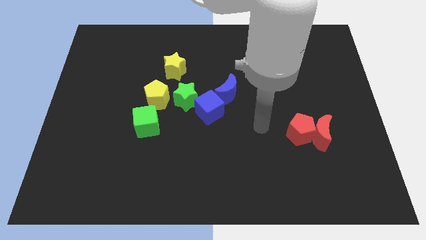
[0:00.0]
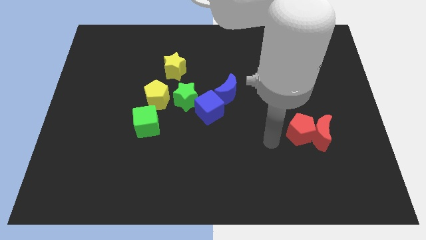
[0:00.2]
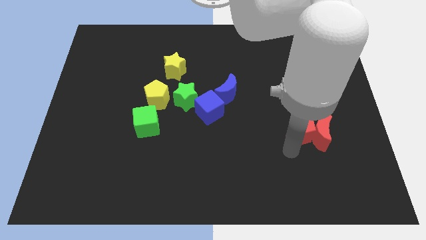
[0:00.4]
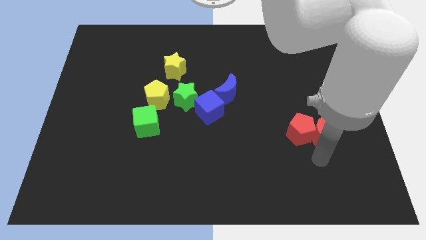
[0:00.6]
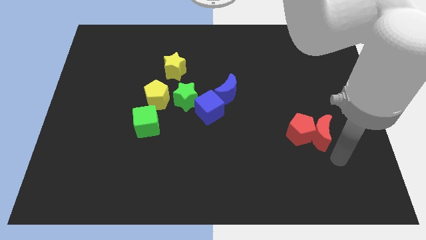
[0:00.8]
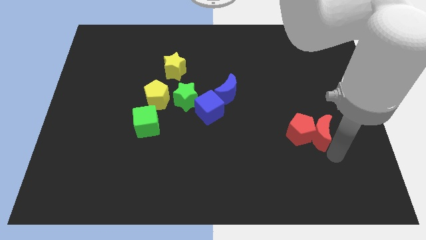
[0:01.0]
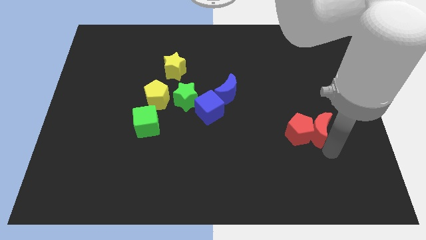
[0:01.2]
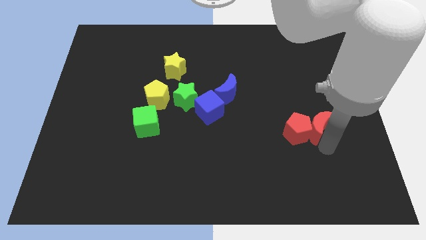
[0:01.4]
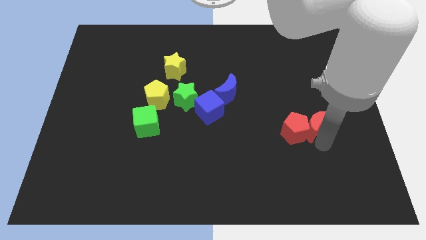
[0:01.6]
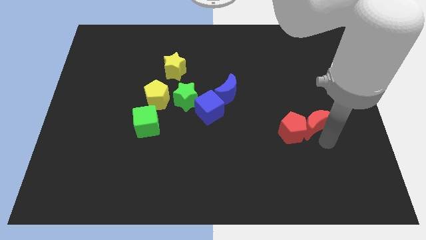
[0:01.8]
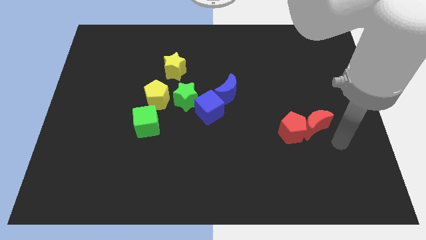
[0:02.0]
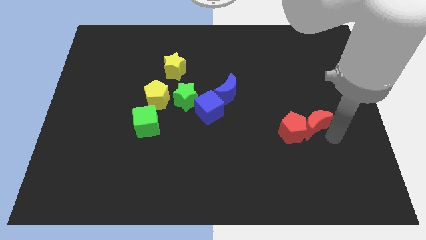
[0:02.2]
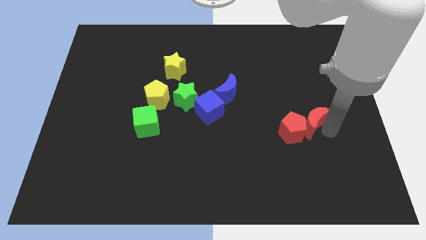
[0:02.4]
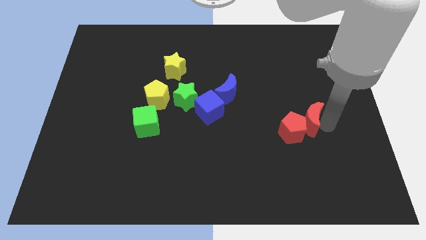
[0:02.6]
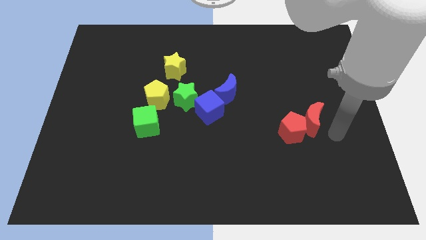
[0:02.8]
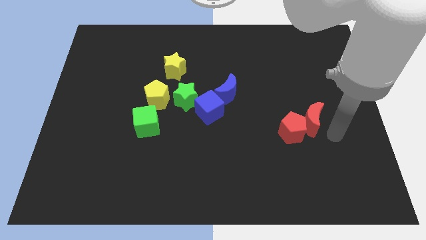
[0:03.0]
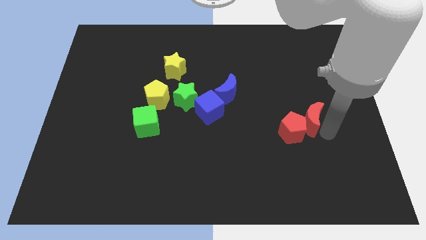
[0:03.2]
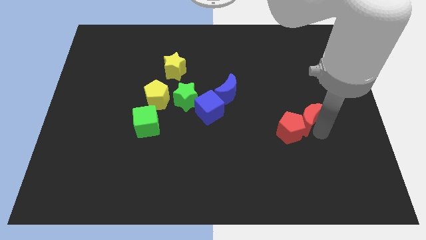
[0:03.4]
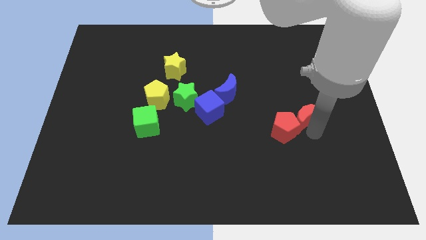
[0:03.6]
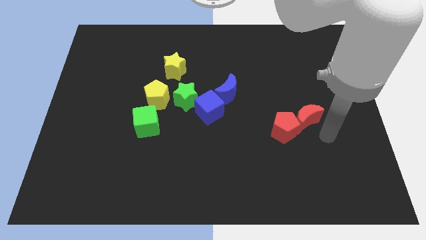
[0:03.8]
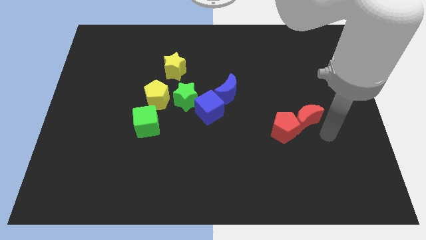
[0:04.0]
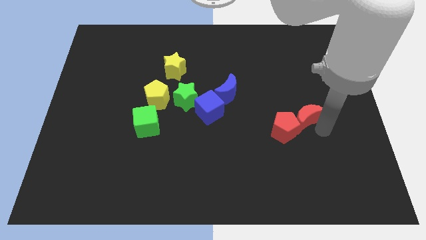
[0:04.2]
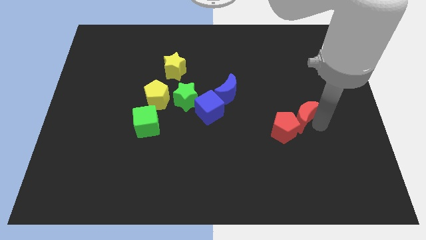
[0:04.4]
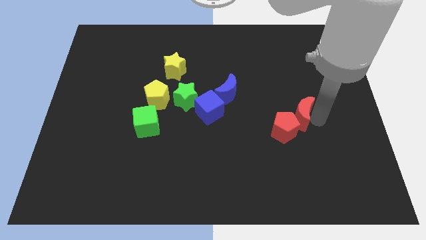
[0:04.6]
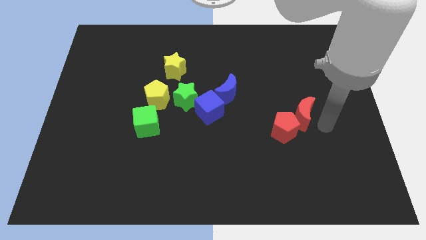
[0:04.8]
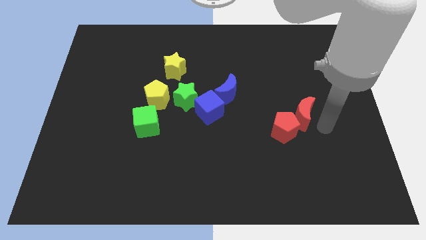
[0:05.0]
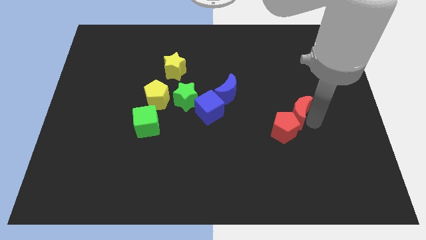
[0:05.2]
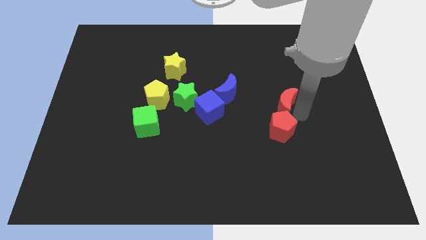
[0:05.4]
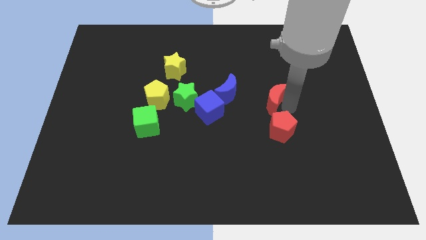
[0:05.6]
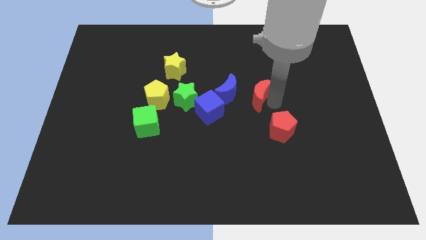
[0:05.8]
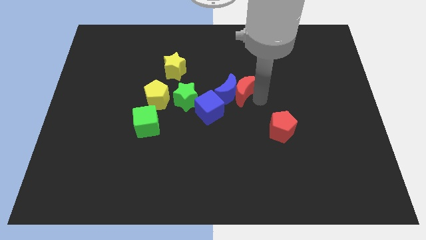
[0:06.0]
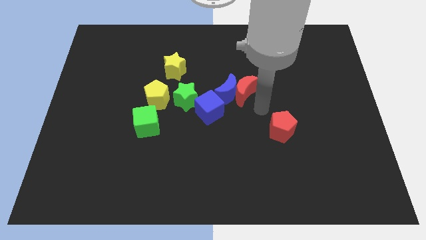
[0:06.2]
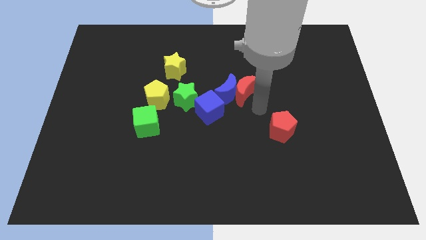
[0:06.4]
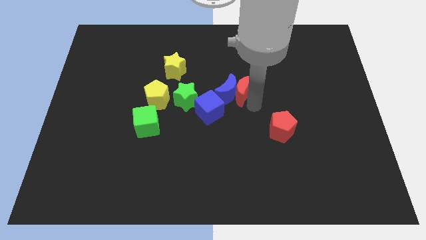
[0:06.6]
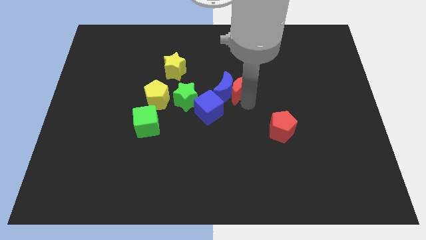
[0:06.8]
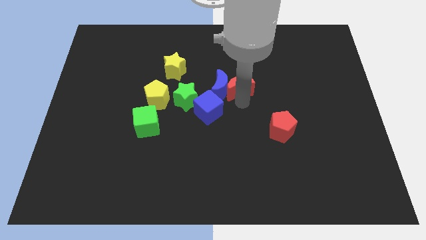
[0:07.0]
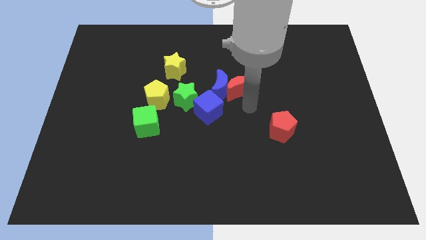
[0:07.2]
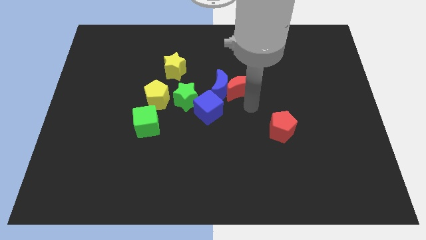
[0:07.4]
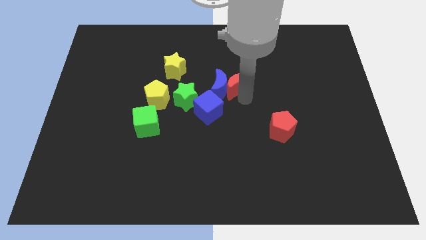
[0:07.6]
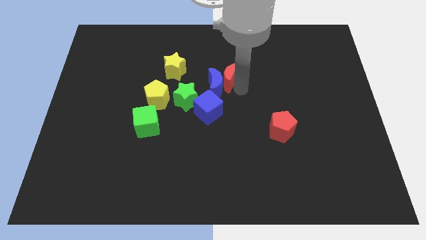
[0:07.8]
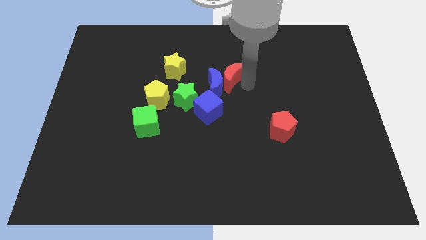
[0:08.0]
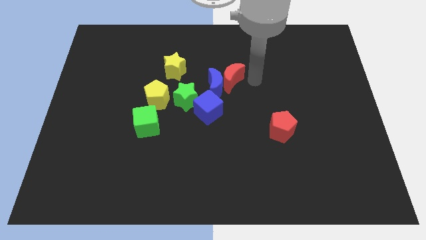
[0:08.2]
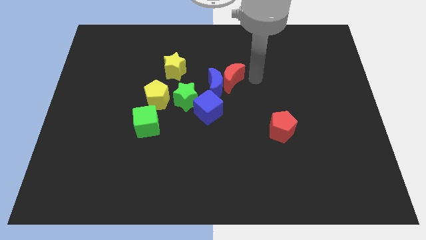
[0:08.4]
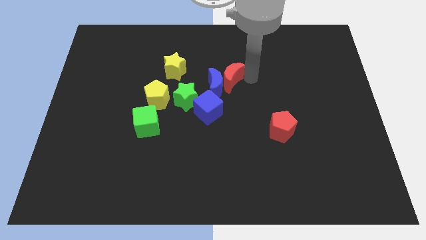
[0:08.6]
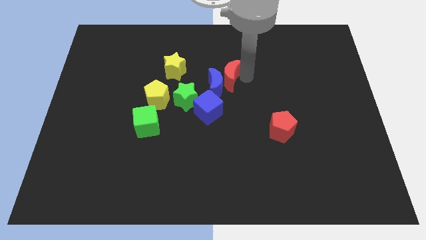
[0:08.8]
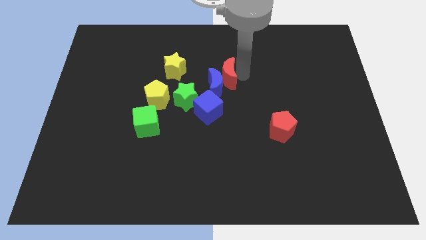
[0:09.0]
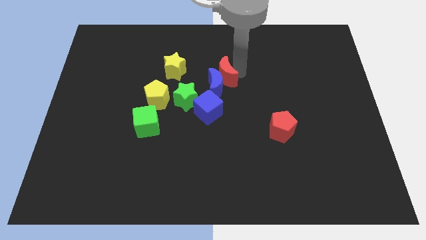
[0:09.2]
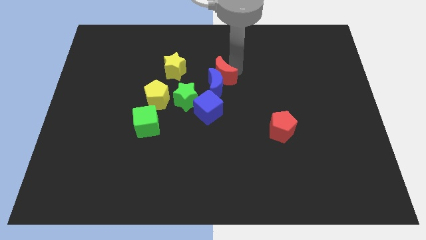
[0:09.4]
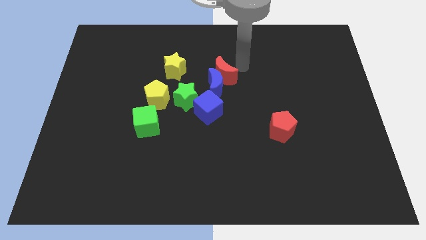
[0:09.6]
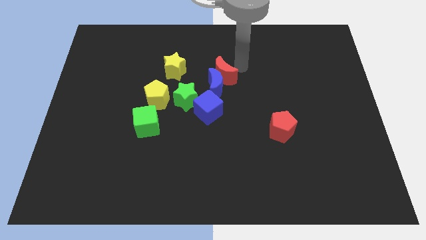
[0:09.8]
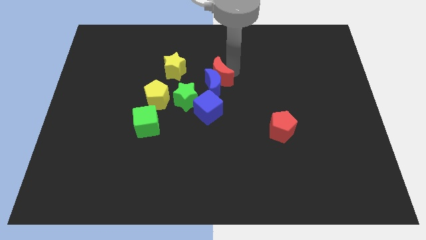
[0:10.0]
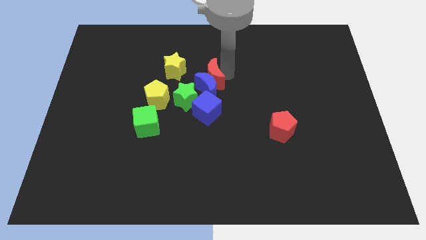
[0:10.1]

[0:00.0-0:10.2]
slide the red moon to the bottom right side of the yellow star

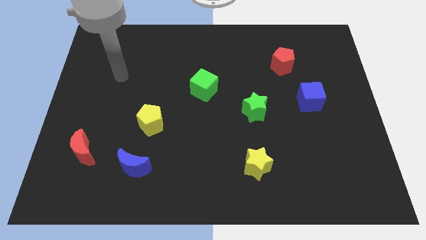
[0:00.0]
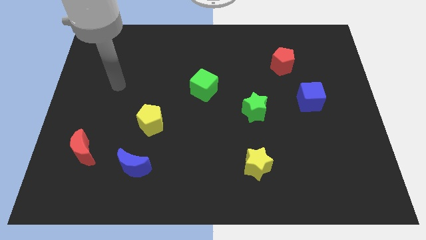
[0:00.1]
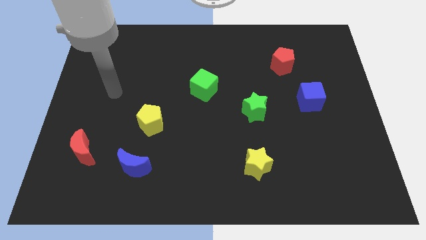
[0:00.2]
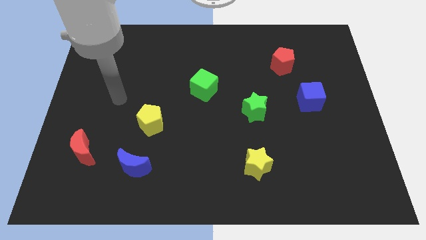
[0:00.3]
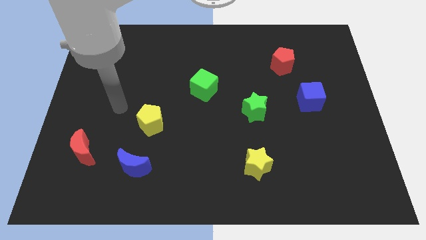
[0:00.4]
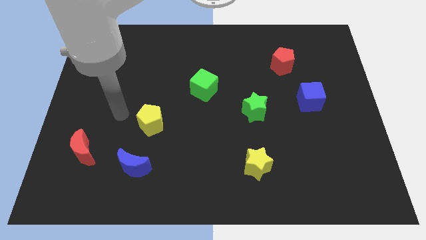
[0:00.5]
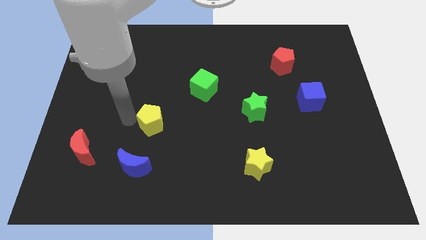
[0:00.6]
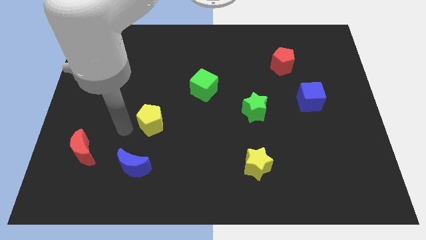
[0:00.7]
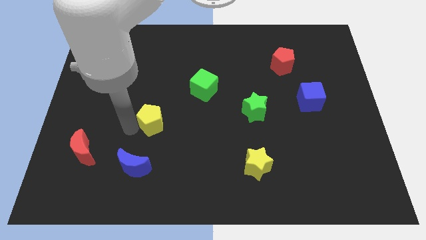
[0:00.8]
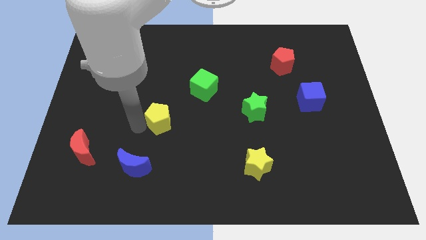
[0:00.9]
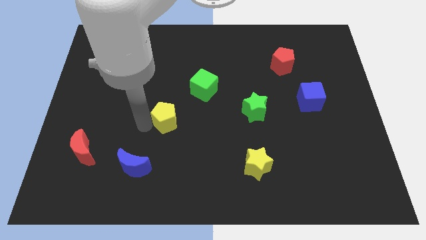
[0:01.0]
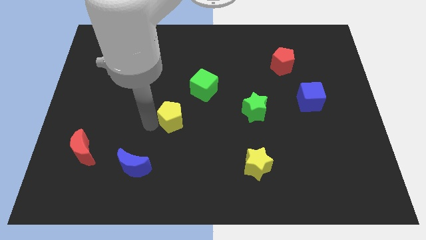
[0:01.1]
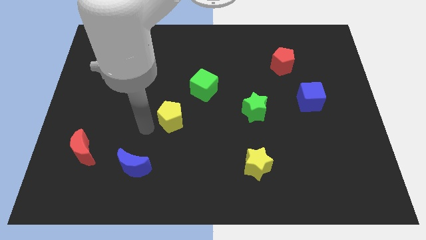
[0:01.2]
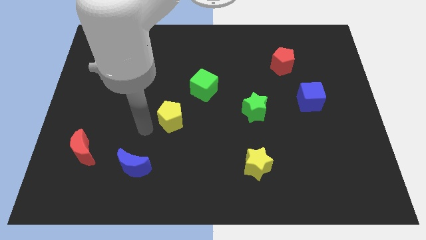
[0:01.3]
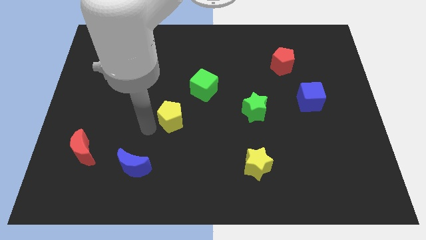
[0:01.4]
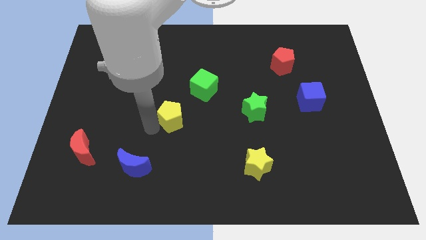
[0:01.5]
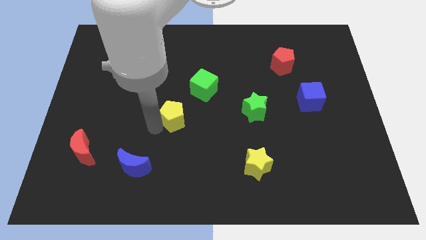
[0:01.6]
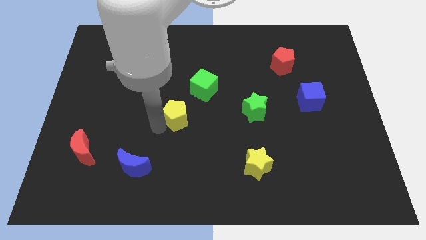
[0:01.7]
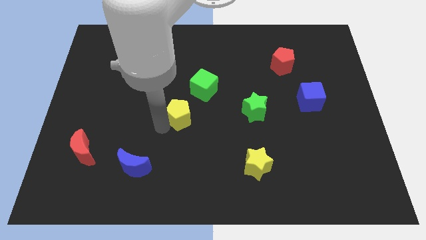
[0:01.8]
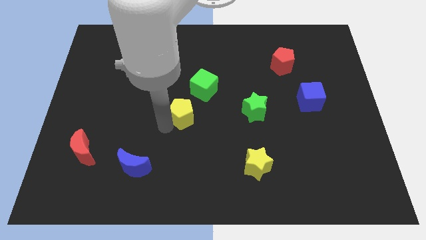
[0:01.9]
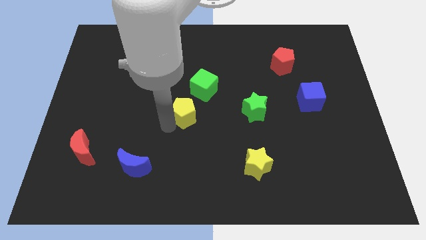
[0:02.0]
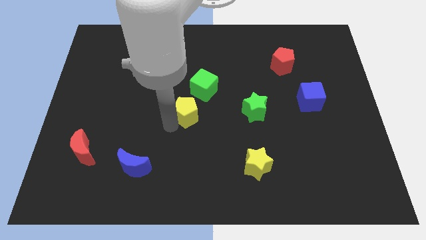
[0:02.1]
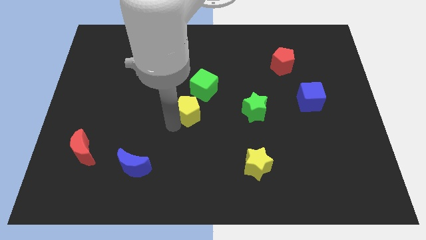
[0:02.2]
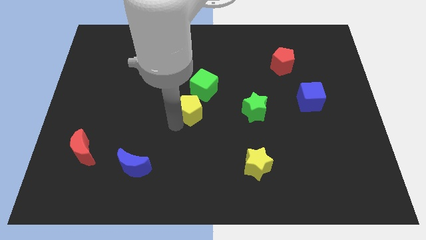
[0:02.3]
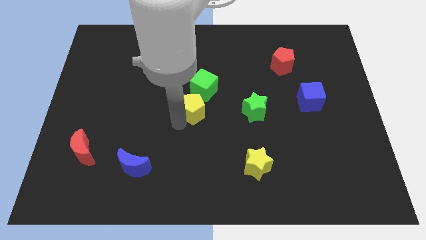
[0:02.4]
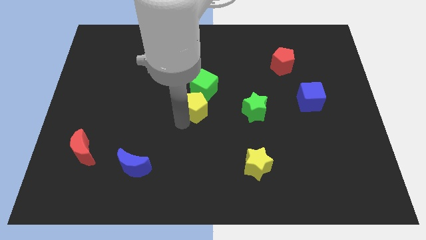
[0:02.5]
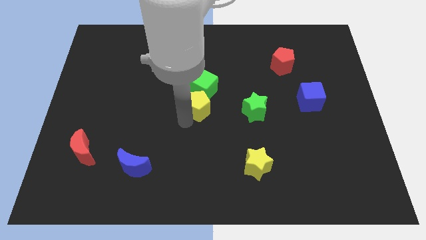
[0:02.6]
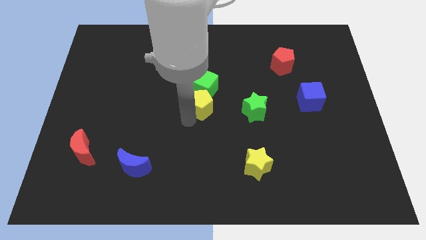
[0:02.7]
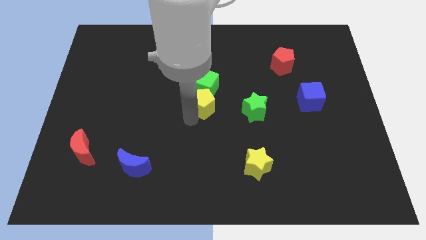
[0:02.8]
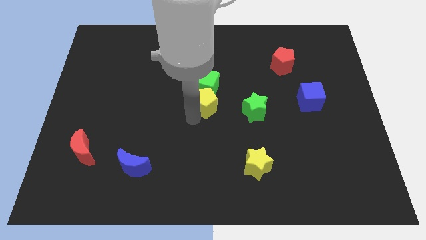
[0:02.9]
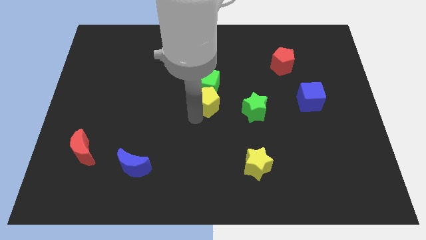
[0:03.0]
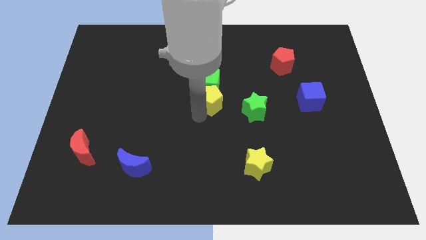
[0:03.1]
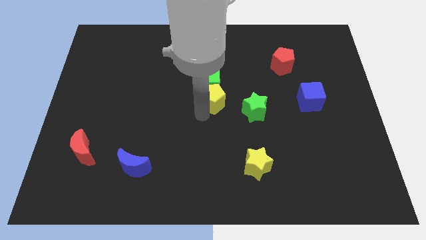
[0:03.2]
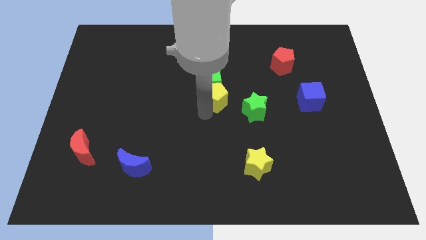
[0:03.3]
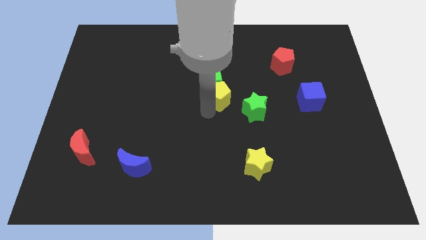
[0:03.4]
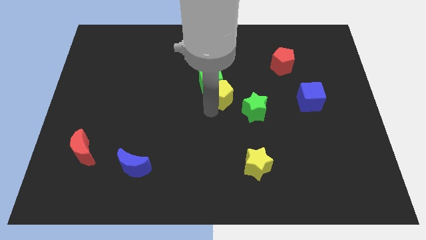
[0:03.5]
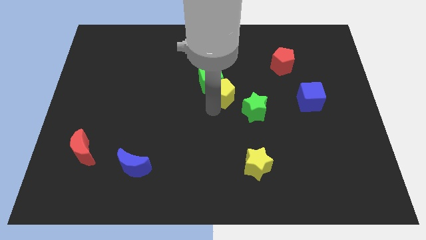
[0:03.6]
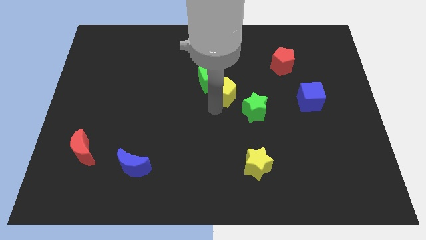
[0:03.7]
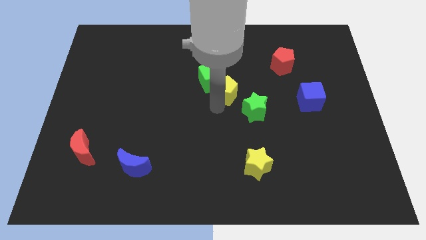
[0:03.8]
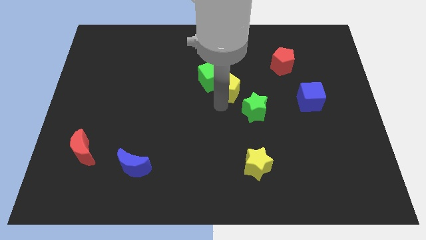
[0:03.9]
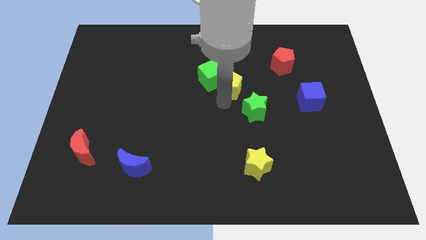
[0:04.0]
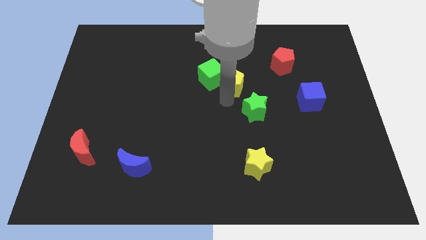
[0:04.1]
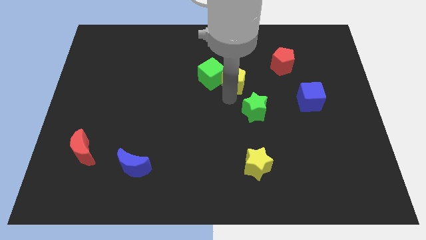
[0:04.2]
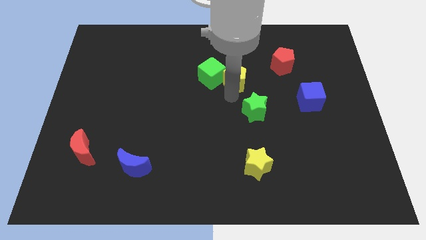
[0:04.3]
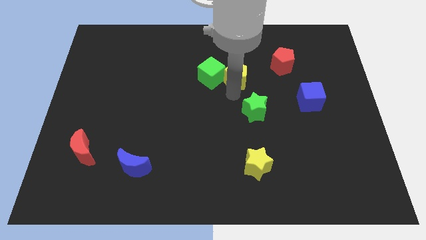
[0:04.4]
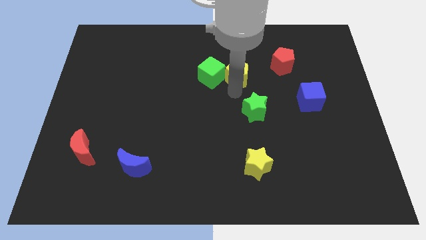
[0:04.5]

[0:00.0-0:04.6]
move the yellow pentagon to the left of the red pentagon
